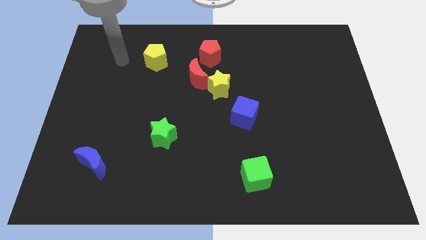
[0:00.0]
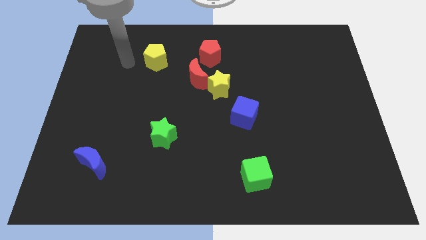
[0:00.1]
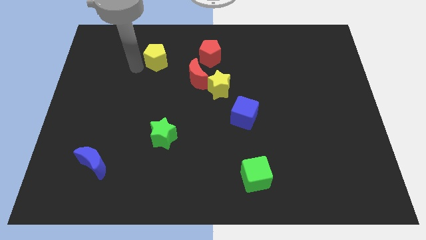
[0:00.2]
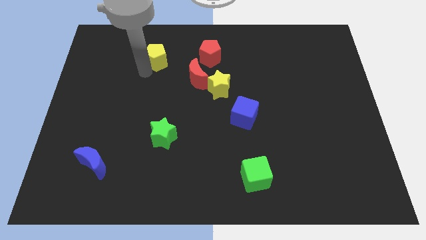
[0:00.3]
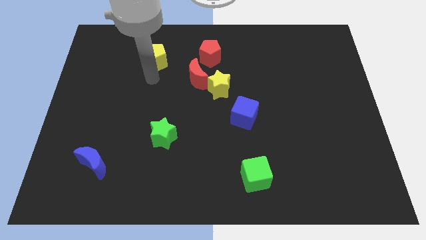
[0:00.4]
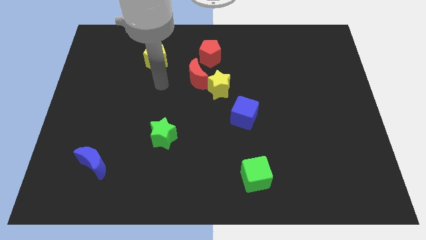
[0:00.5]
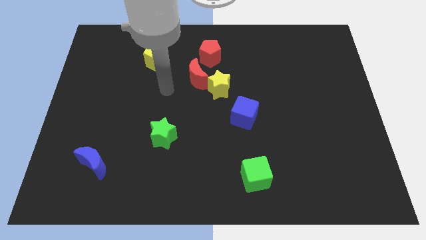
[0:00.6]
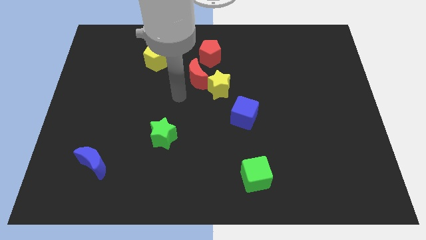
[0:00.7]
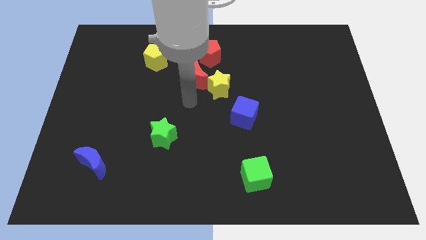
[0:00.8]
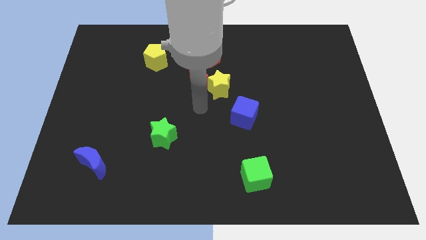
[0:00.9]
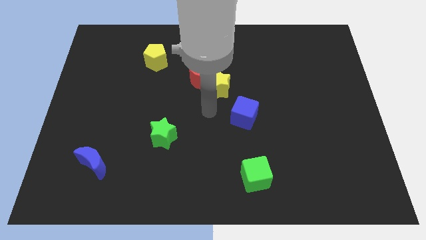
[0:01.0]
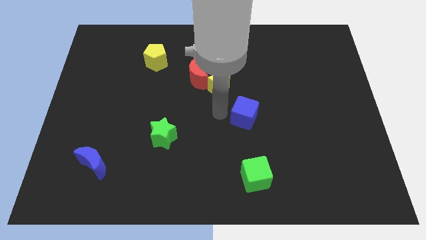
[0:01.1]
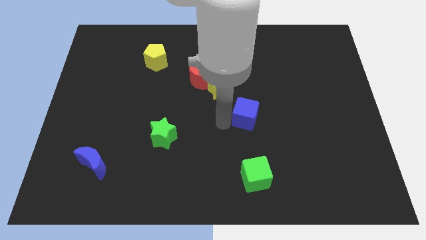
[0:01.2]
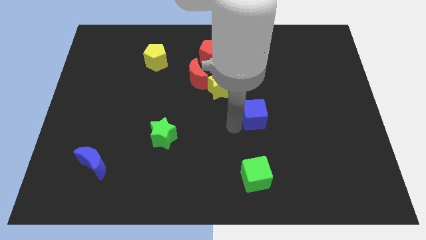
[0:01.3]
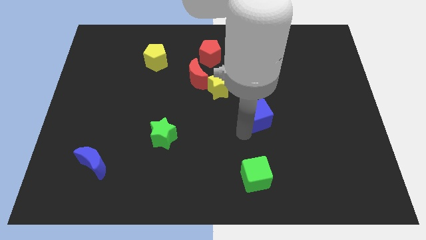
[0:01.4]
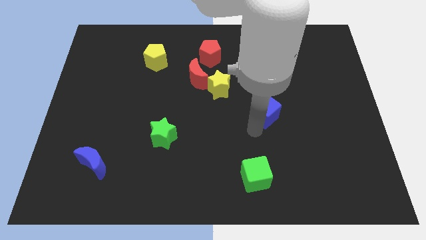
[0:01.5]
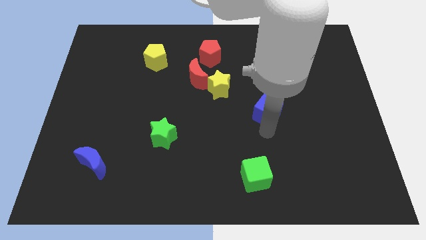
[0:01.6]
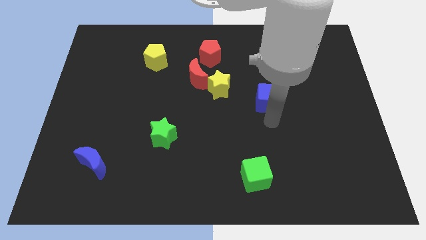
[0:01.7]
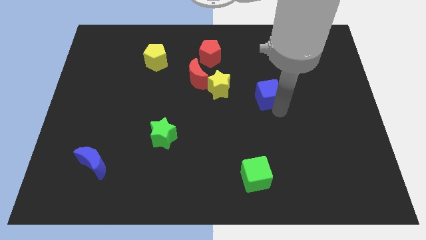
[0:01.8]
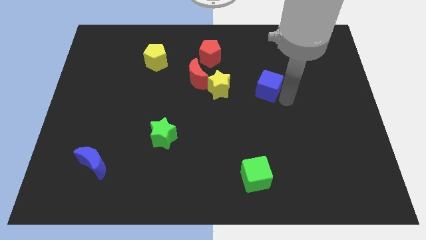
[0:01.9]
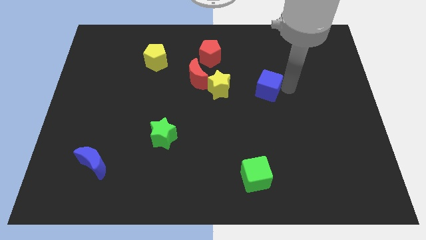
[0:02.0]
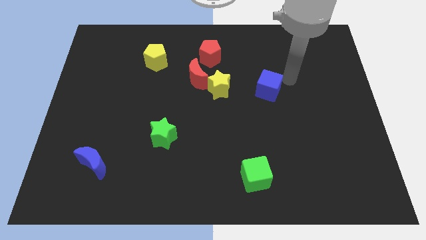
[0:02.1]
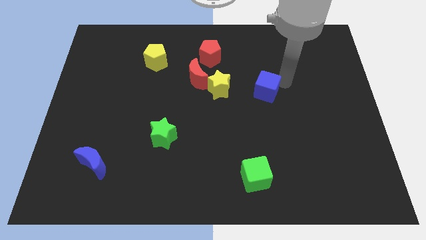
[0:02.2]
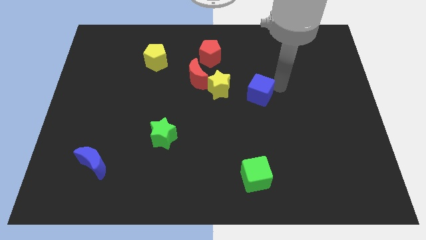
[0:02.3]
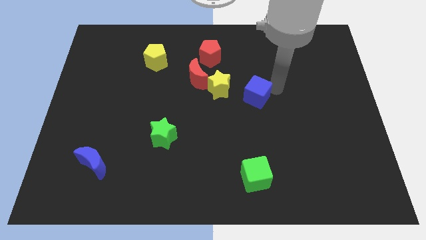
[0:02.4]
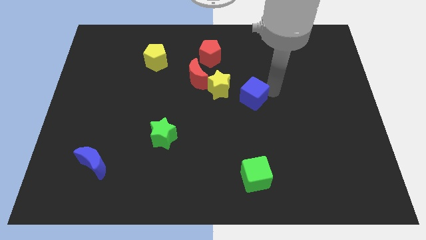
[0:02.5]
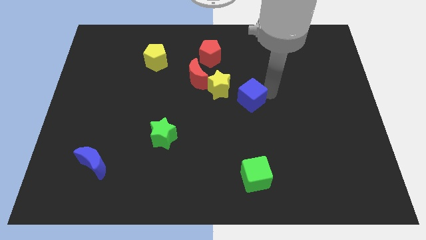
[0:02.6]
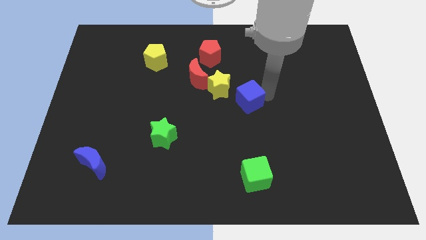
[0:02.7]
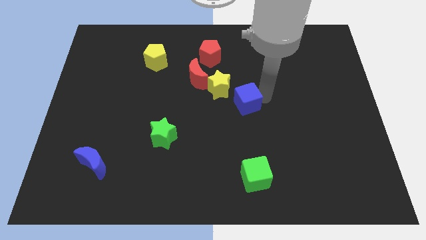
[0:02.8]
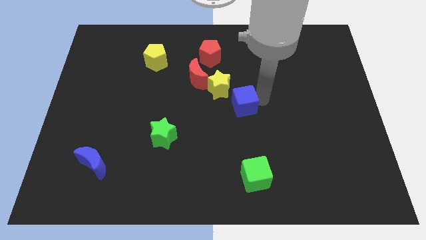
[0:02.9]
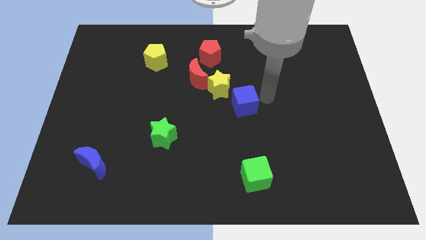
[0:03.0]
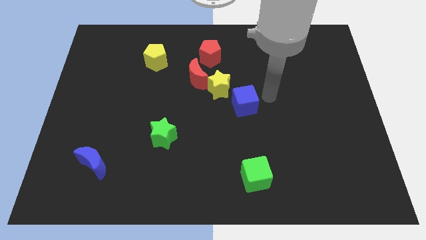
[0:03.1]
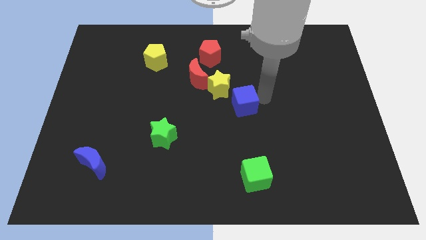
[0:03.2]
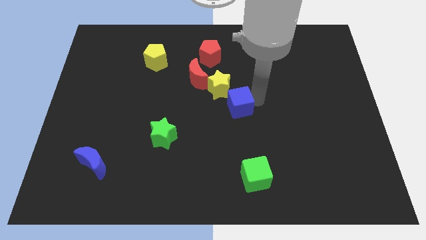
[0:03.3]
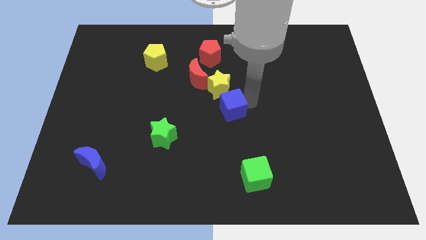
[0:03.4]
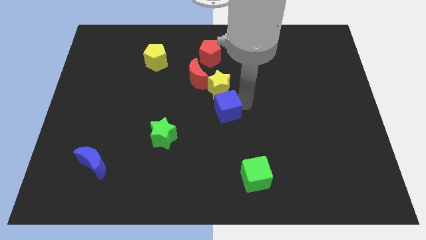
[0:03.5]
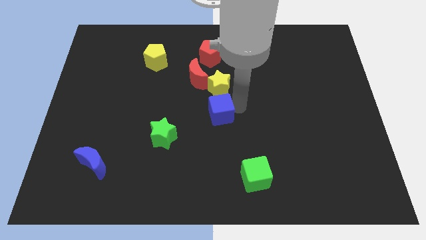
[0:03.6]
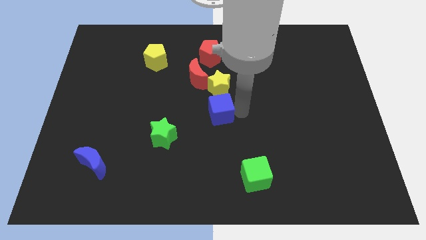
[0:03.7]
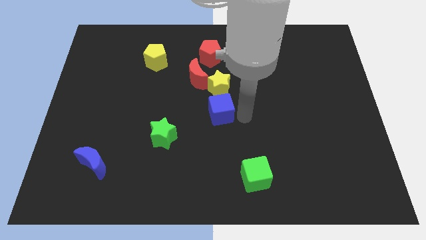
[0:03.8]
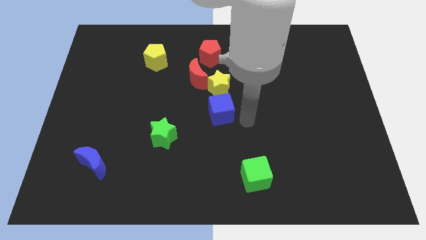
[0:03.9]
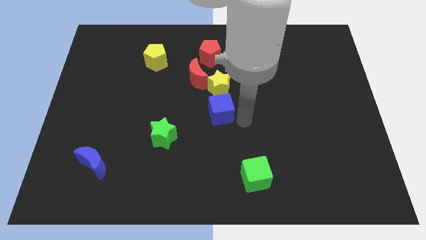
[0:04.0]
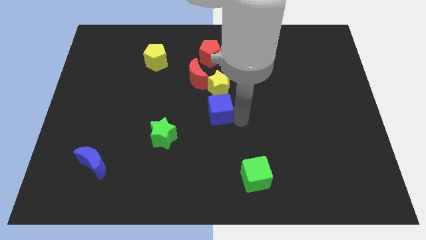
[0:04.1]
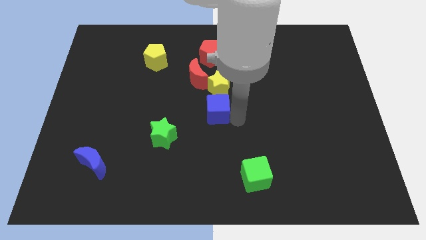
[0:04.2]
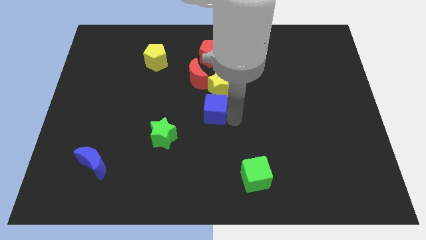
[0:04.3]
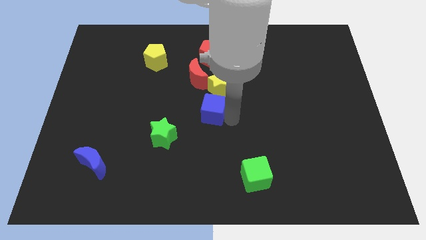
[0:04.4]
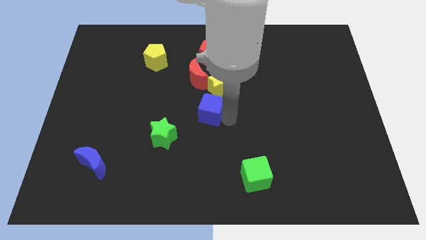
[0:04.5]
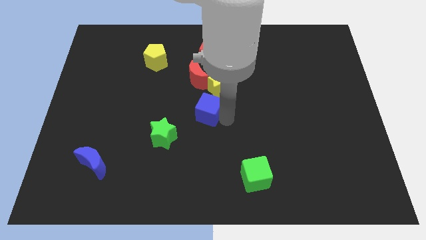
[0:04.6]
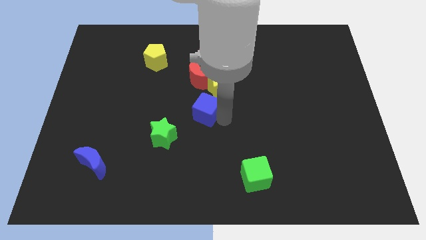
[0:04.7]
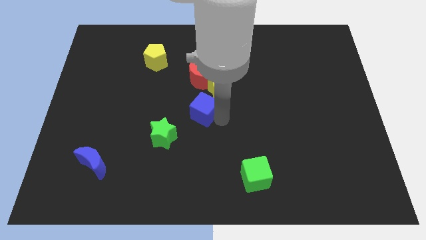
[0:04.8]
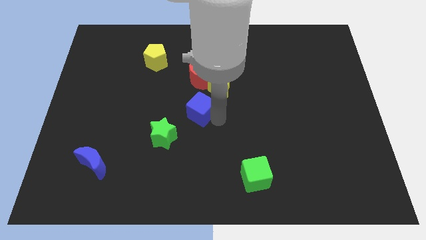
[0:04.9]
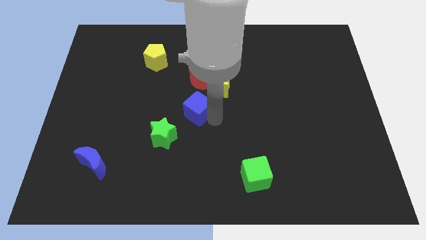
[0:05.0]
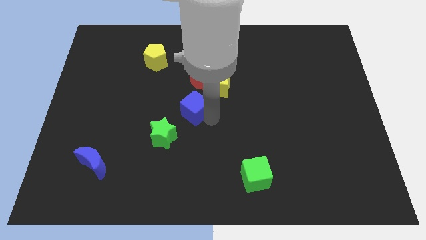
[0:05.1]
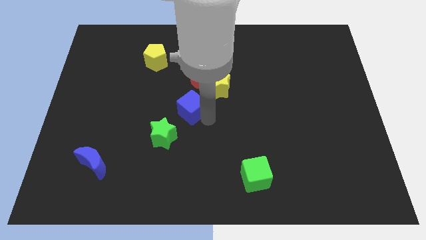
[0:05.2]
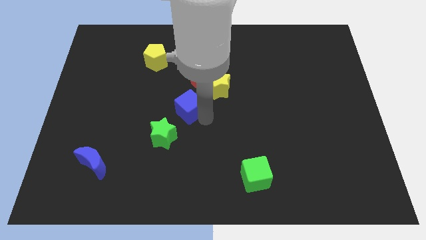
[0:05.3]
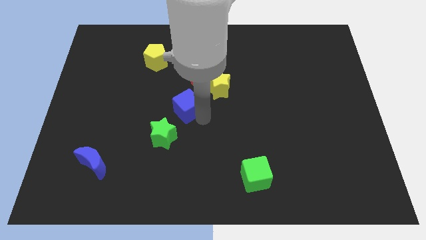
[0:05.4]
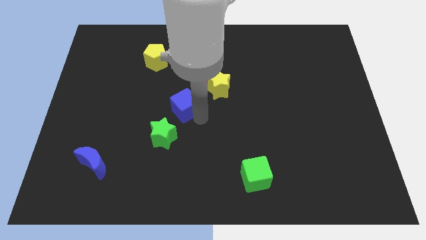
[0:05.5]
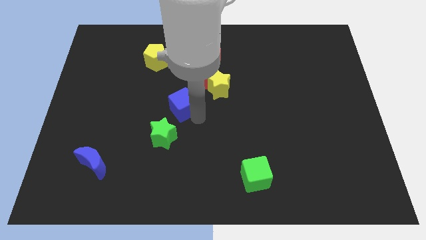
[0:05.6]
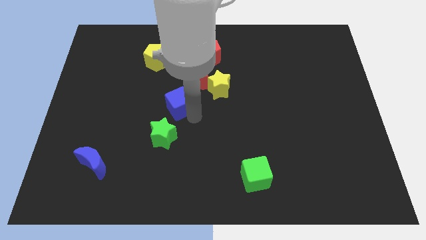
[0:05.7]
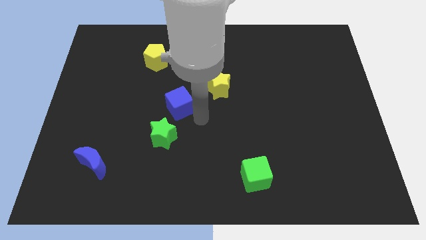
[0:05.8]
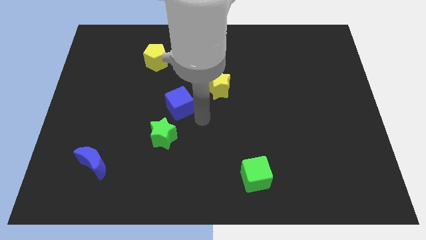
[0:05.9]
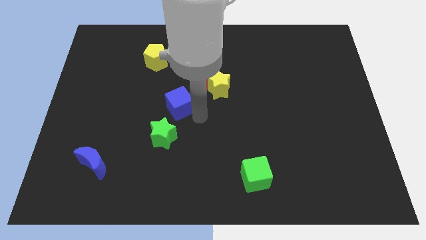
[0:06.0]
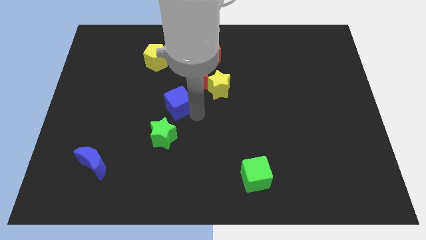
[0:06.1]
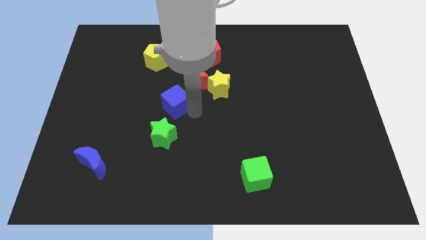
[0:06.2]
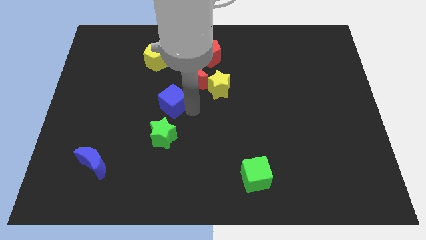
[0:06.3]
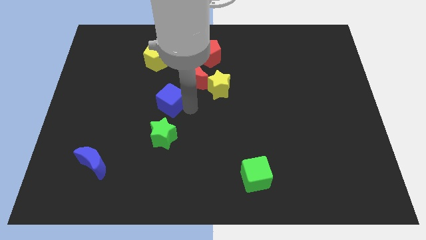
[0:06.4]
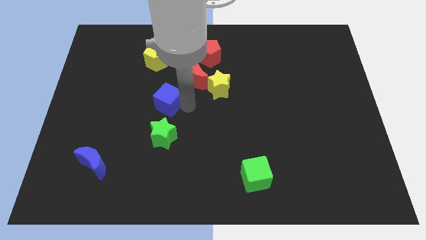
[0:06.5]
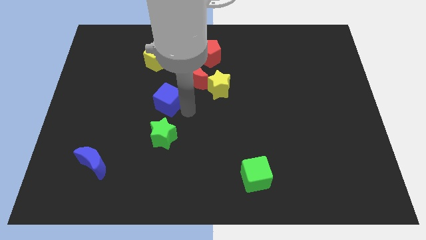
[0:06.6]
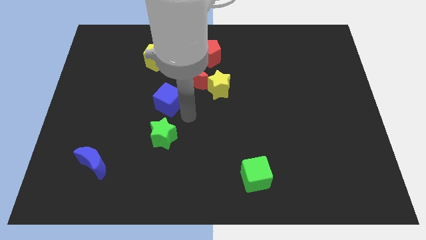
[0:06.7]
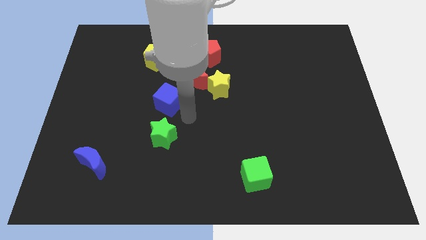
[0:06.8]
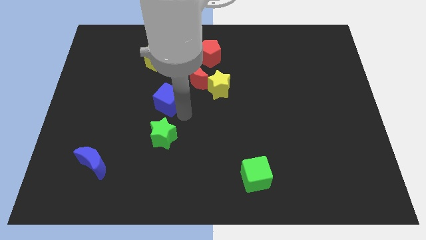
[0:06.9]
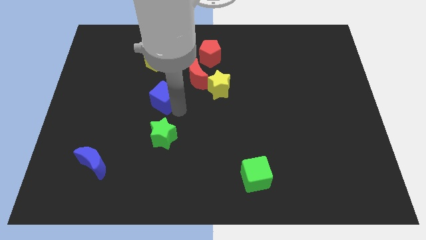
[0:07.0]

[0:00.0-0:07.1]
slide the blue cube below the yellow pentagon

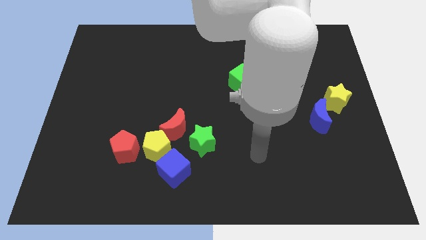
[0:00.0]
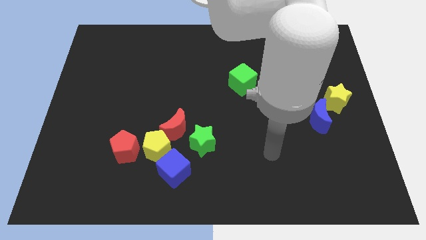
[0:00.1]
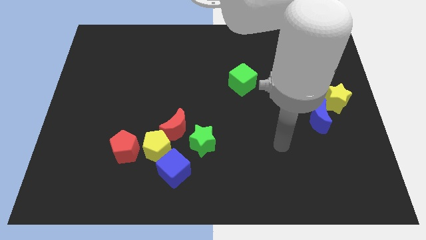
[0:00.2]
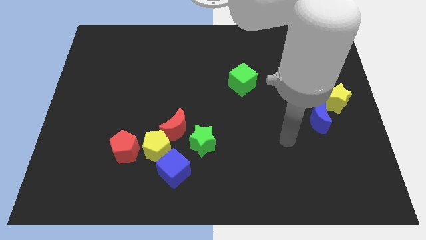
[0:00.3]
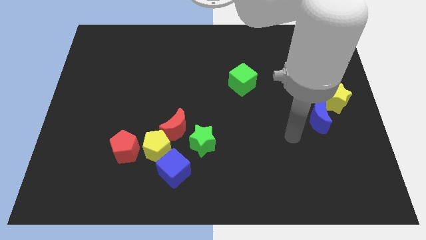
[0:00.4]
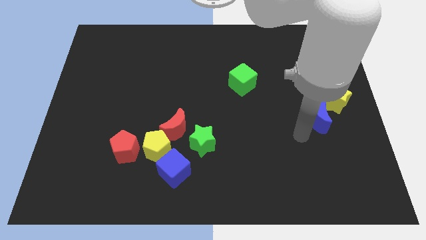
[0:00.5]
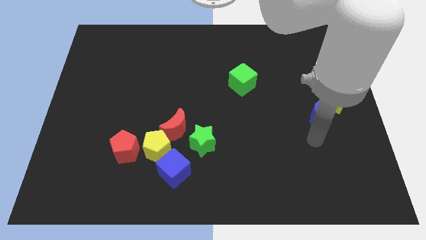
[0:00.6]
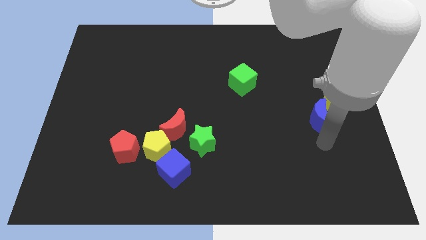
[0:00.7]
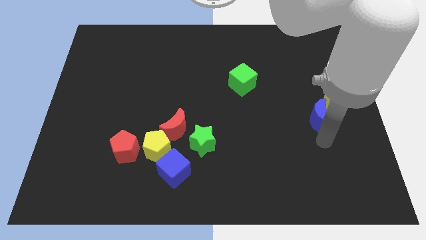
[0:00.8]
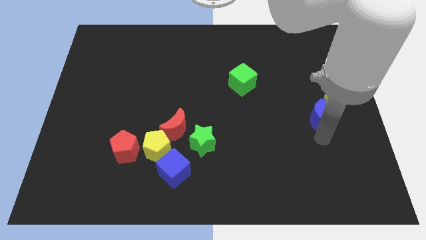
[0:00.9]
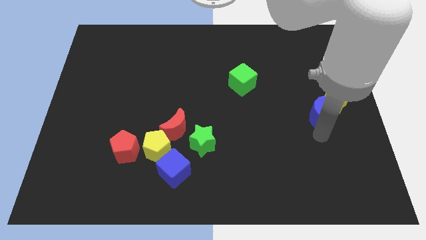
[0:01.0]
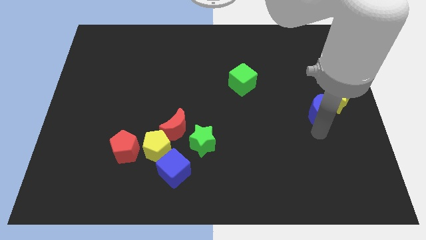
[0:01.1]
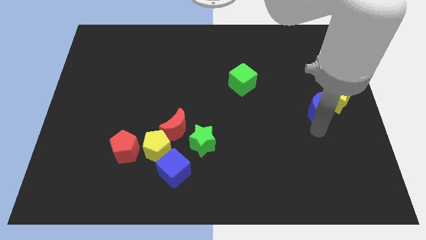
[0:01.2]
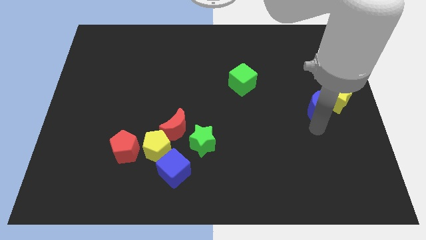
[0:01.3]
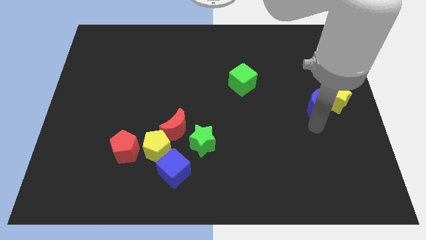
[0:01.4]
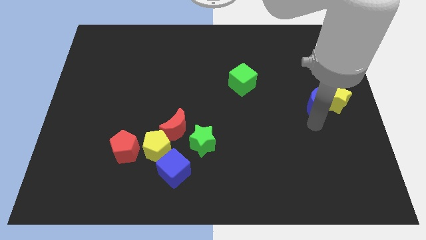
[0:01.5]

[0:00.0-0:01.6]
slide the blue moon to the top left side of the yellow star
